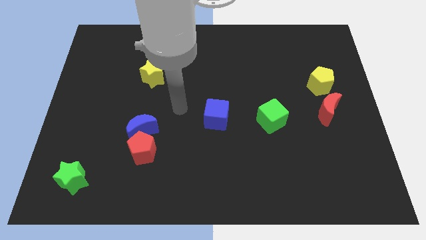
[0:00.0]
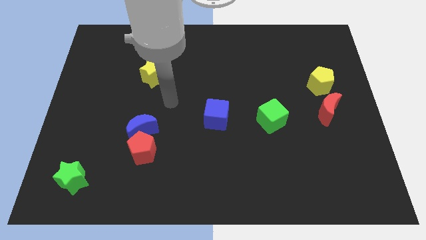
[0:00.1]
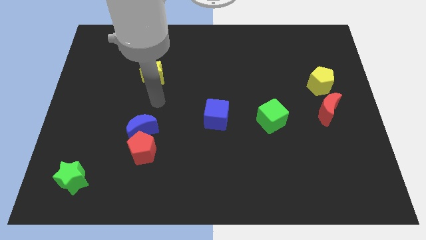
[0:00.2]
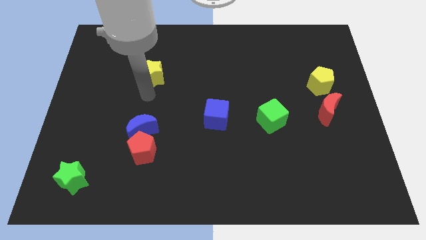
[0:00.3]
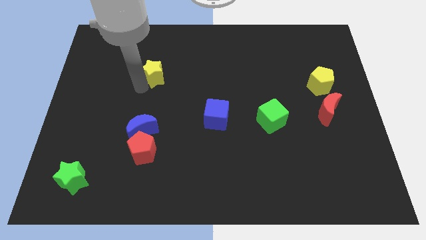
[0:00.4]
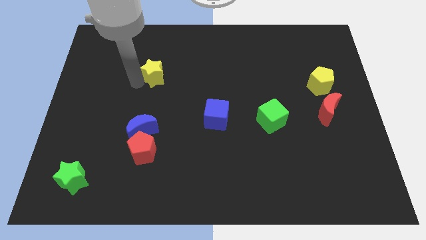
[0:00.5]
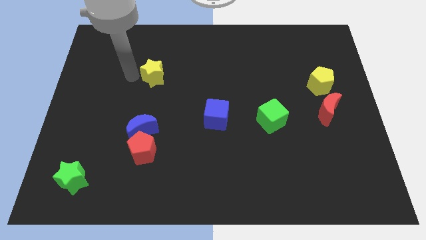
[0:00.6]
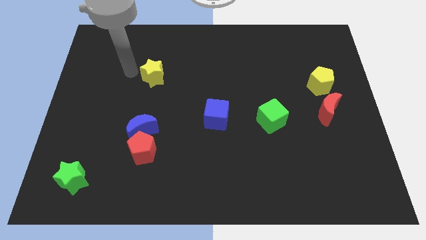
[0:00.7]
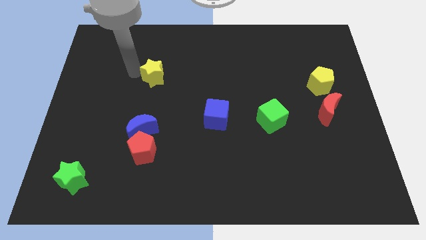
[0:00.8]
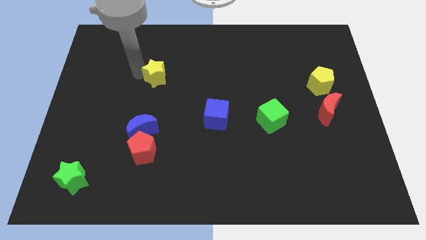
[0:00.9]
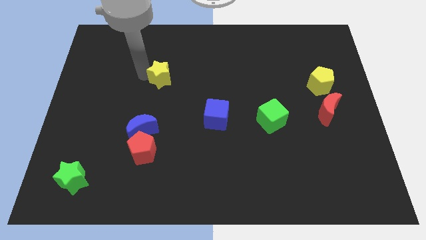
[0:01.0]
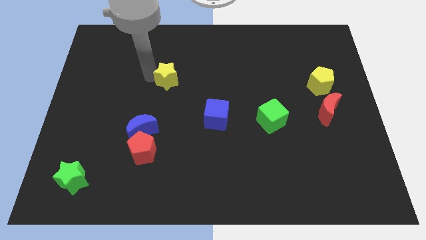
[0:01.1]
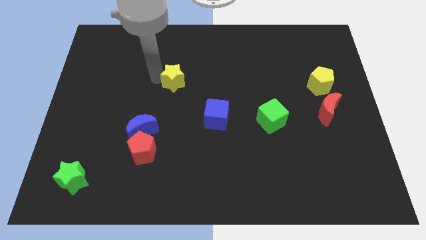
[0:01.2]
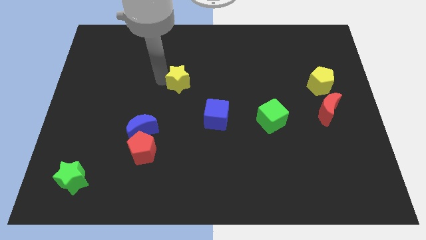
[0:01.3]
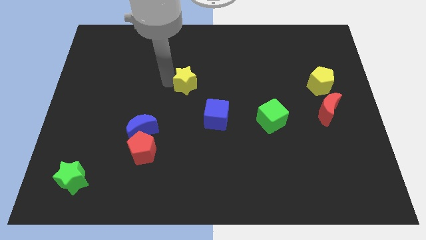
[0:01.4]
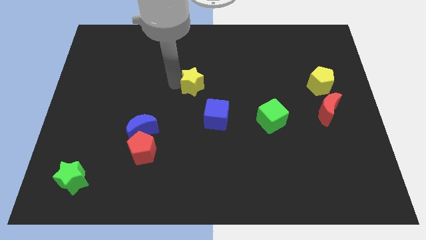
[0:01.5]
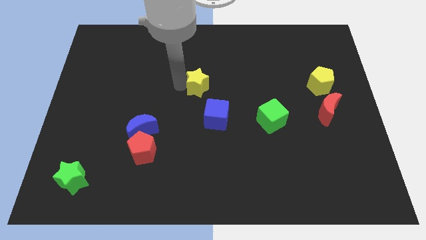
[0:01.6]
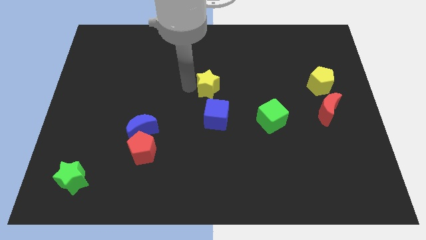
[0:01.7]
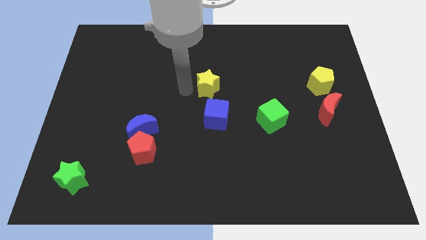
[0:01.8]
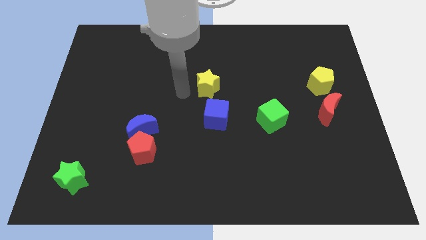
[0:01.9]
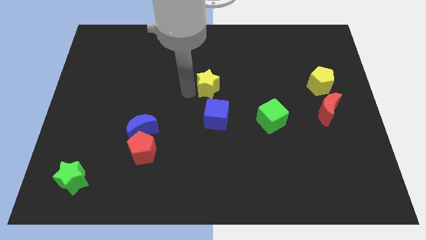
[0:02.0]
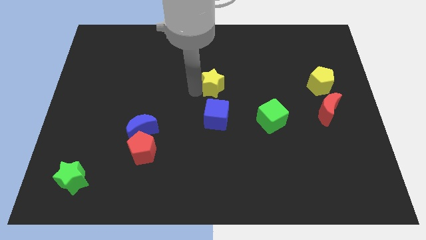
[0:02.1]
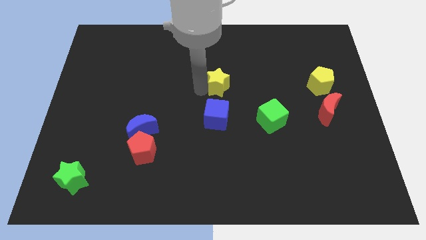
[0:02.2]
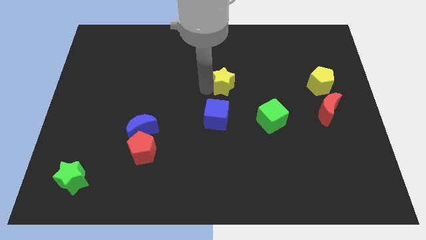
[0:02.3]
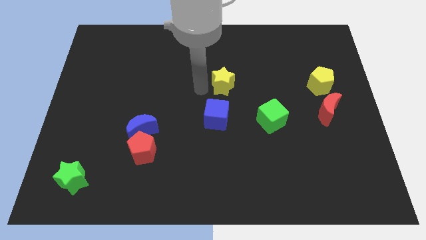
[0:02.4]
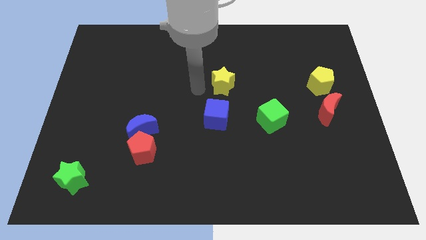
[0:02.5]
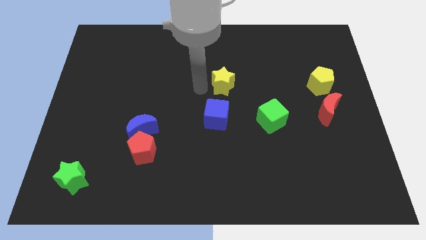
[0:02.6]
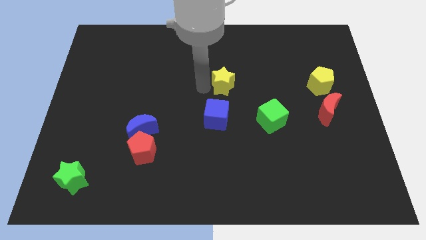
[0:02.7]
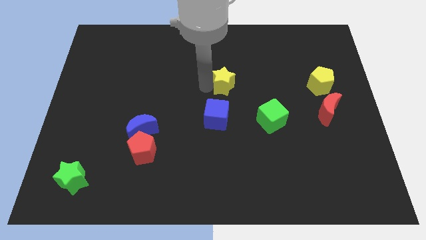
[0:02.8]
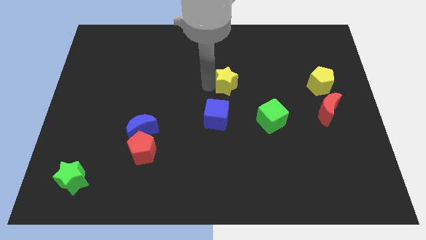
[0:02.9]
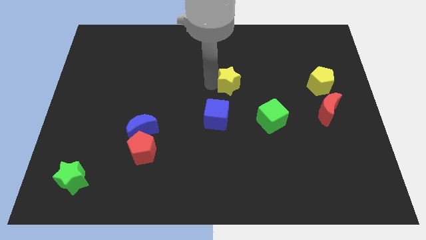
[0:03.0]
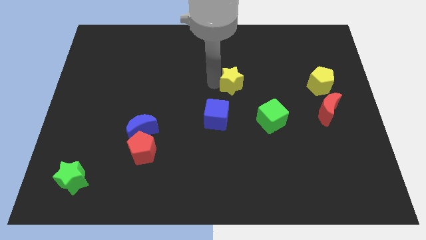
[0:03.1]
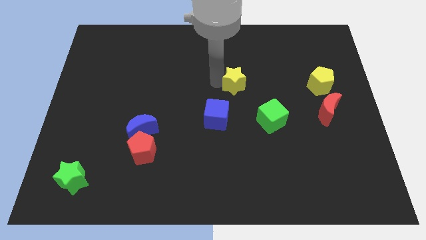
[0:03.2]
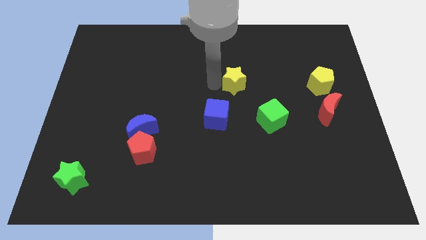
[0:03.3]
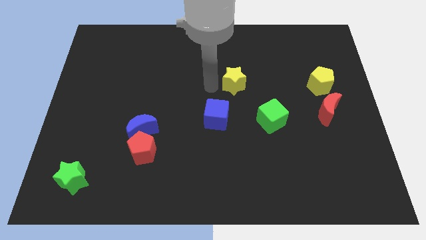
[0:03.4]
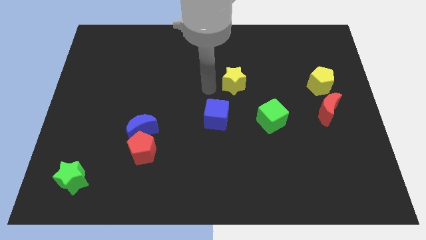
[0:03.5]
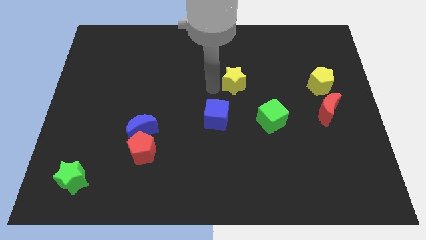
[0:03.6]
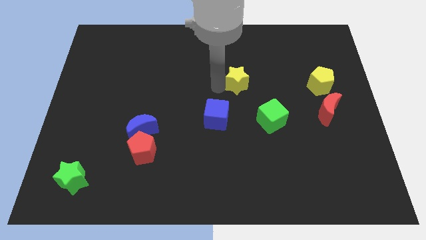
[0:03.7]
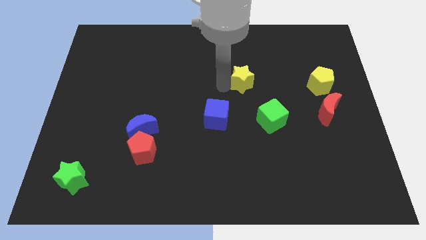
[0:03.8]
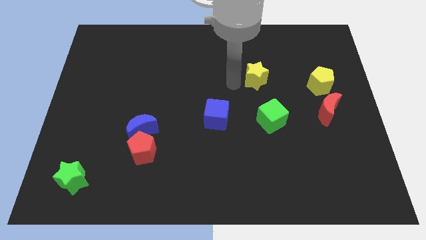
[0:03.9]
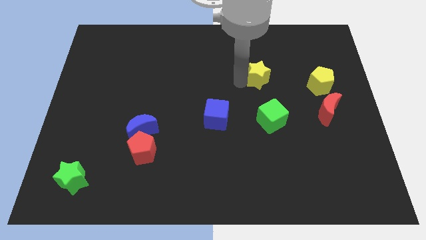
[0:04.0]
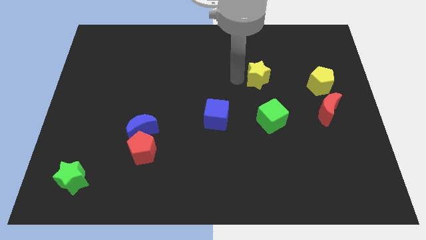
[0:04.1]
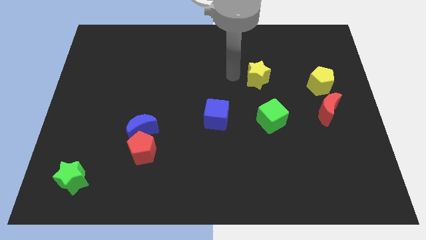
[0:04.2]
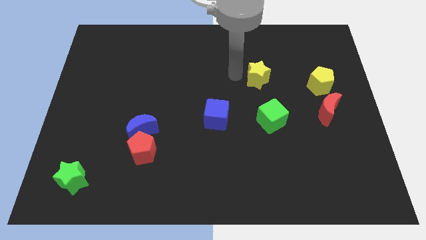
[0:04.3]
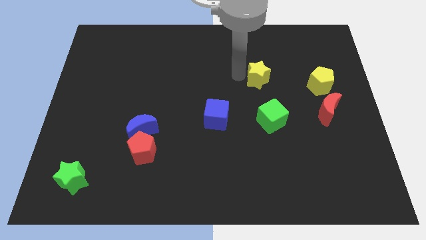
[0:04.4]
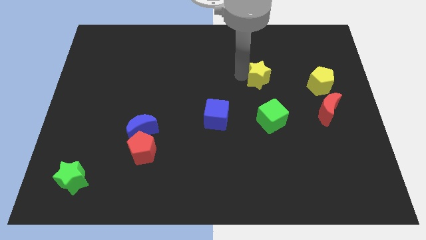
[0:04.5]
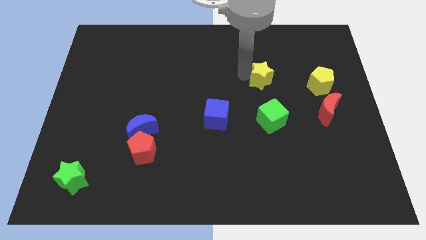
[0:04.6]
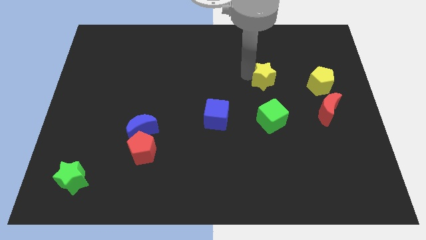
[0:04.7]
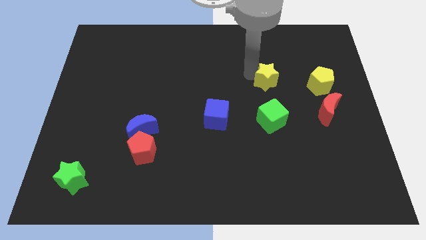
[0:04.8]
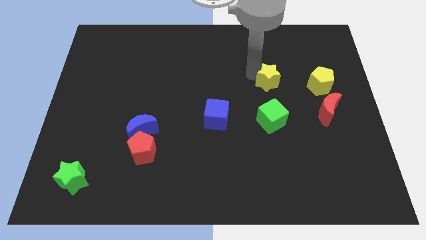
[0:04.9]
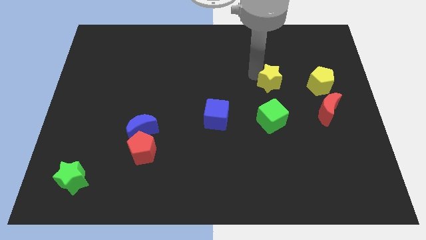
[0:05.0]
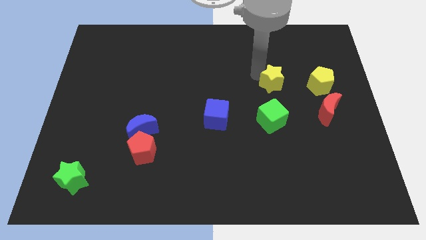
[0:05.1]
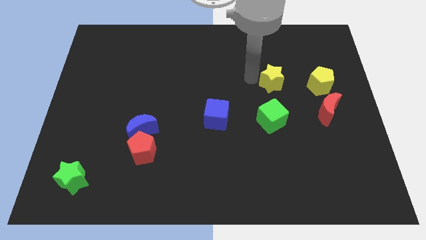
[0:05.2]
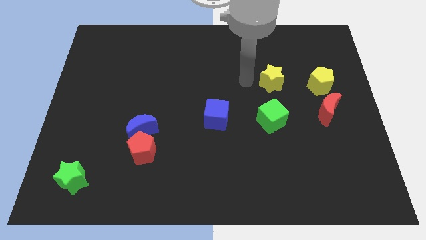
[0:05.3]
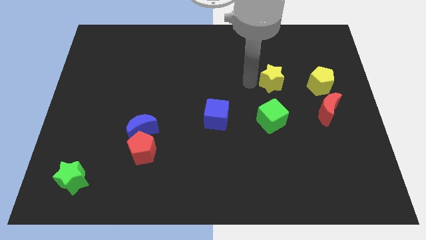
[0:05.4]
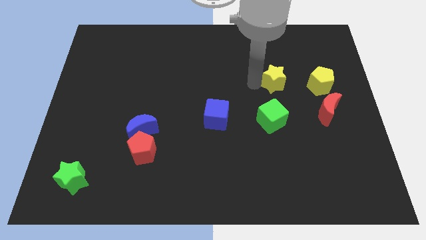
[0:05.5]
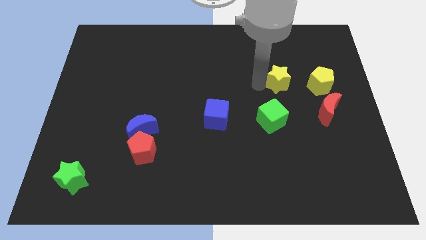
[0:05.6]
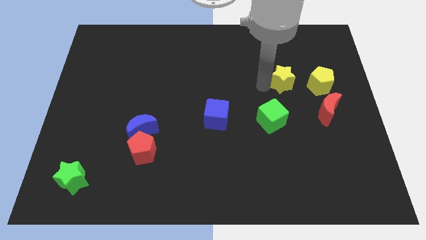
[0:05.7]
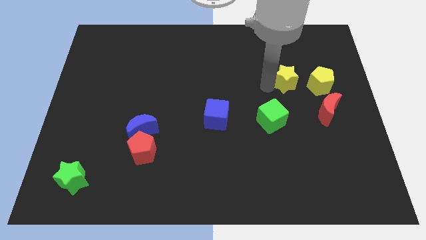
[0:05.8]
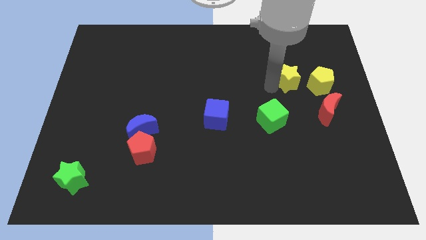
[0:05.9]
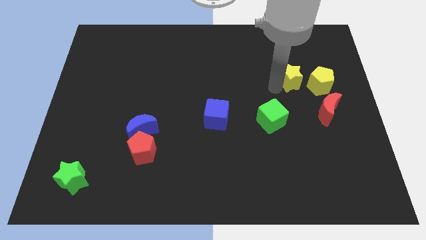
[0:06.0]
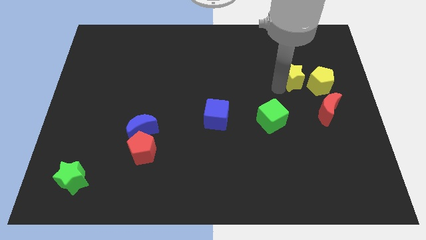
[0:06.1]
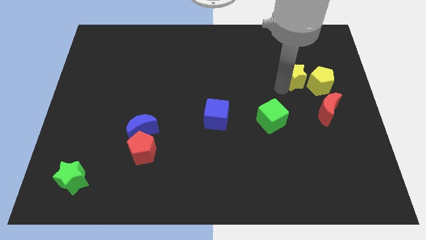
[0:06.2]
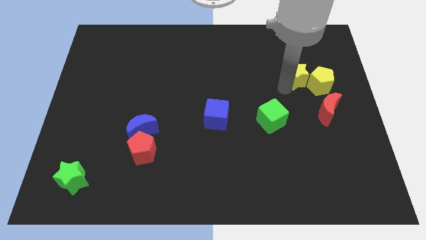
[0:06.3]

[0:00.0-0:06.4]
push the yellow star next to the yellow pentagon

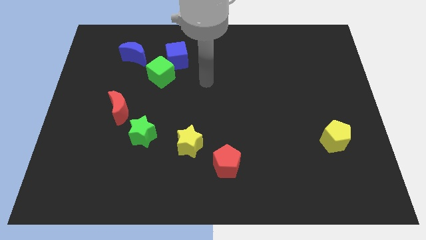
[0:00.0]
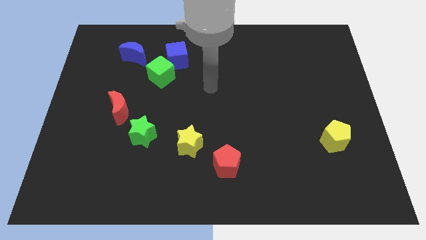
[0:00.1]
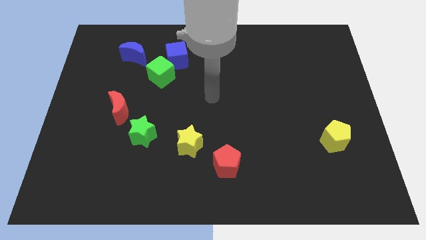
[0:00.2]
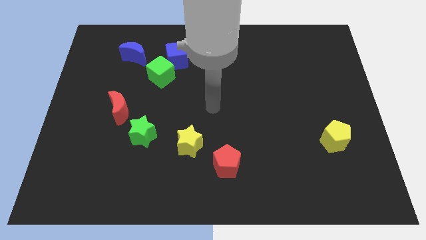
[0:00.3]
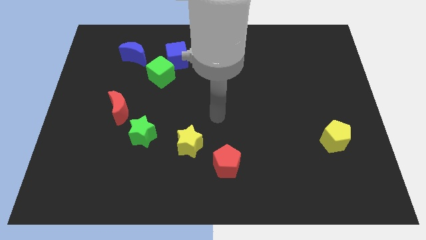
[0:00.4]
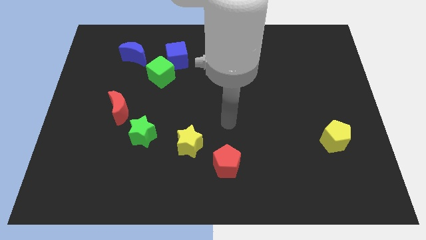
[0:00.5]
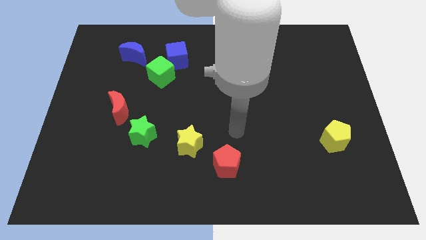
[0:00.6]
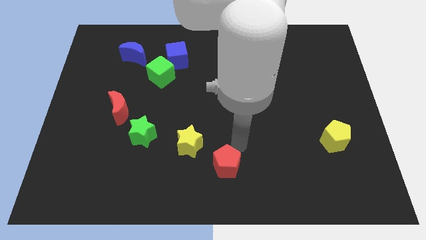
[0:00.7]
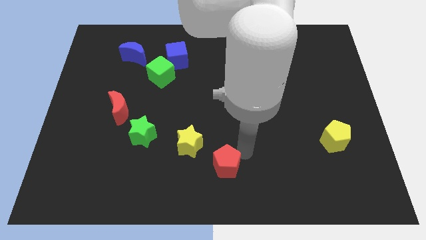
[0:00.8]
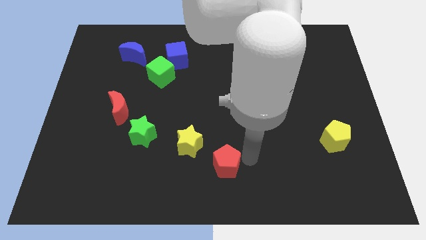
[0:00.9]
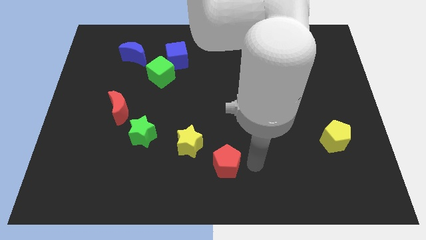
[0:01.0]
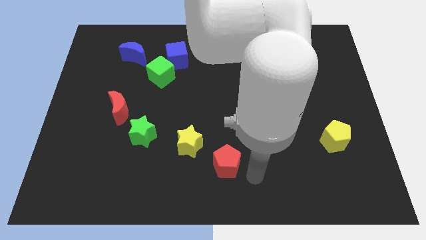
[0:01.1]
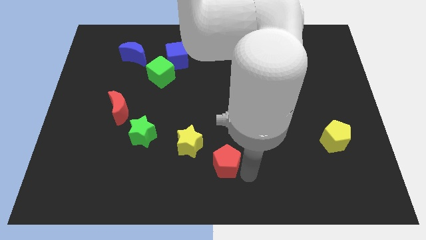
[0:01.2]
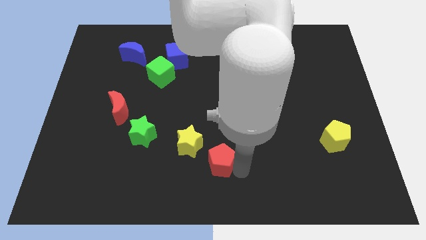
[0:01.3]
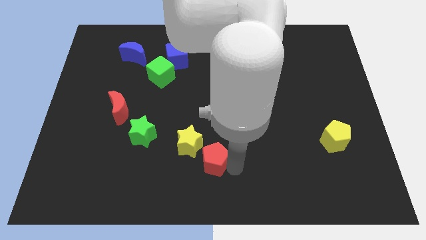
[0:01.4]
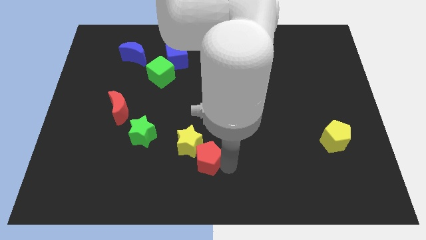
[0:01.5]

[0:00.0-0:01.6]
put the red pentagon to the yellow star
